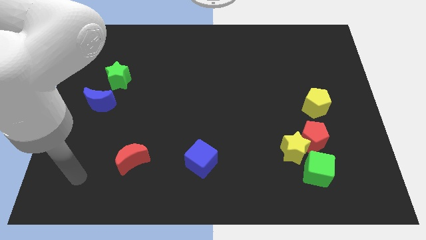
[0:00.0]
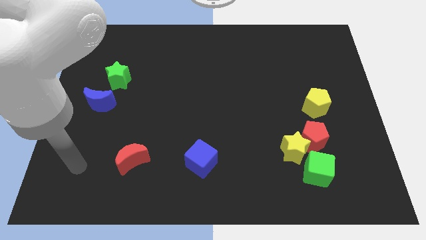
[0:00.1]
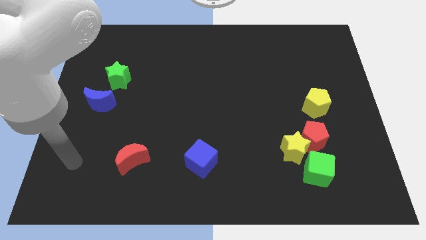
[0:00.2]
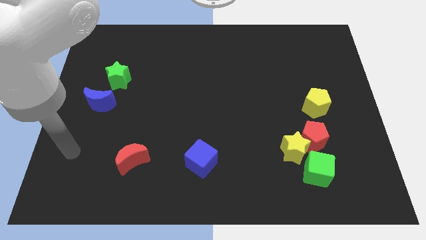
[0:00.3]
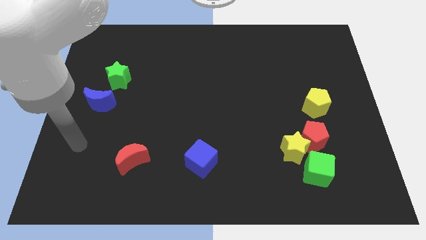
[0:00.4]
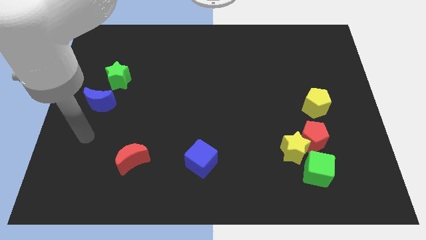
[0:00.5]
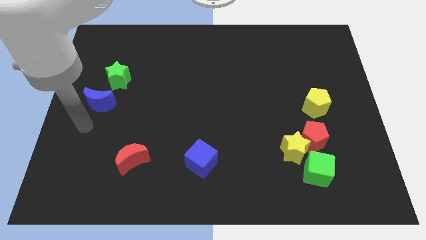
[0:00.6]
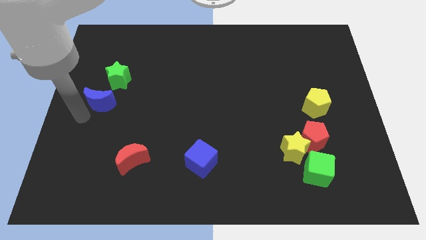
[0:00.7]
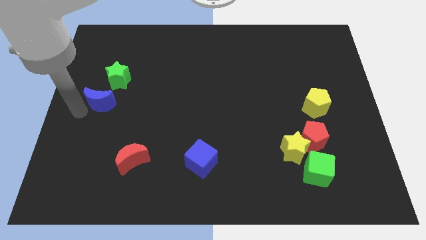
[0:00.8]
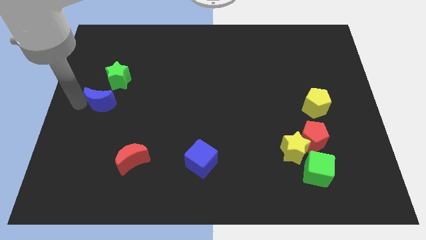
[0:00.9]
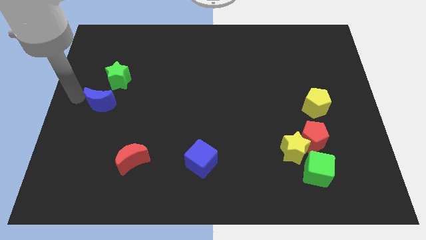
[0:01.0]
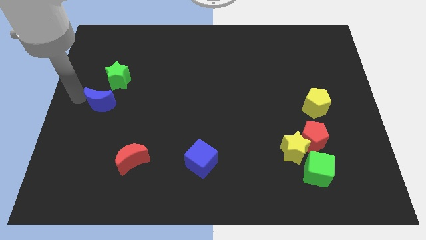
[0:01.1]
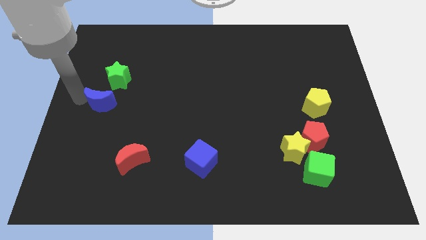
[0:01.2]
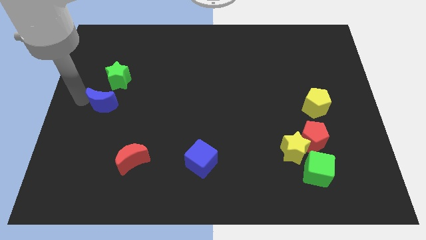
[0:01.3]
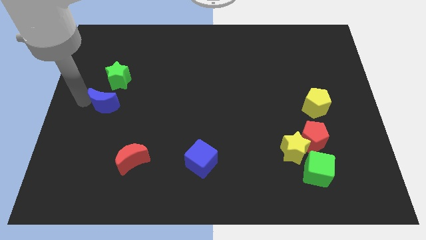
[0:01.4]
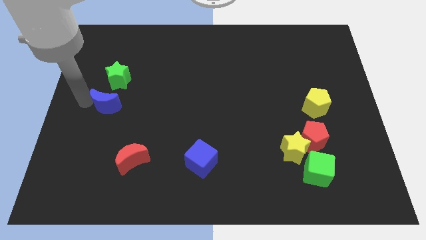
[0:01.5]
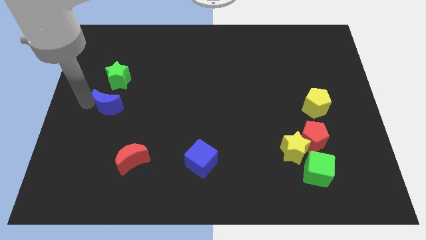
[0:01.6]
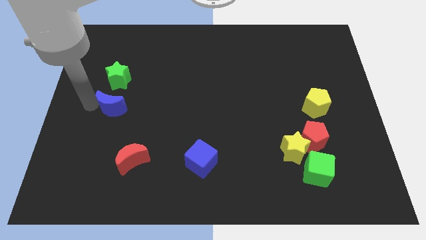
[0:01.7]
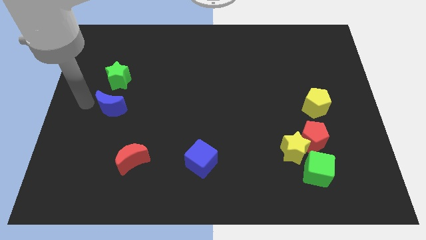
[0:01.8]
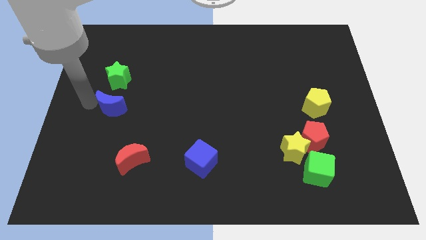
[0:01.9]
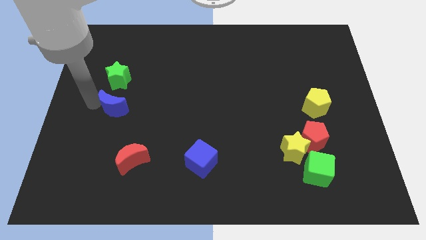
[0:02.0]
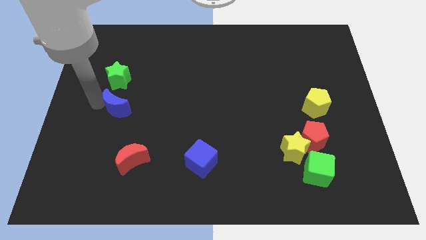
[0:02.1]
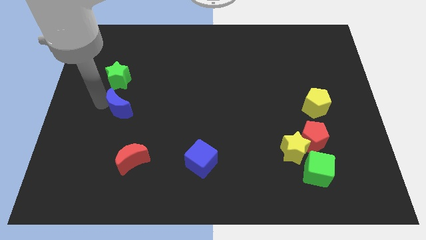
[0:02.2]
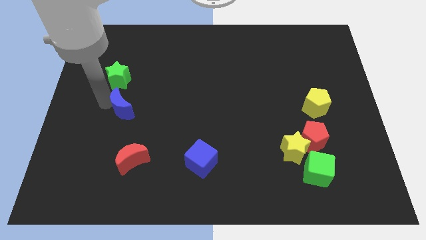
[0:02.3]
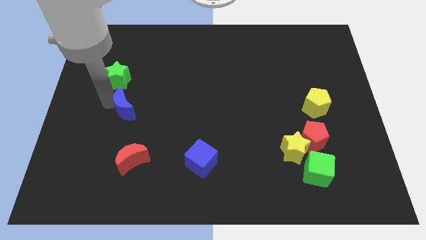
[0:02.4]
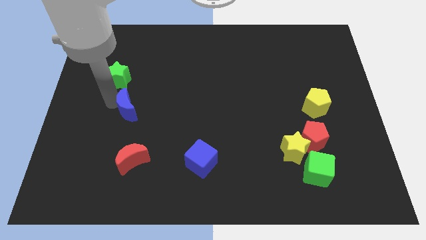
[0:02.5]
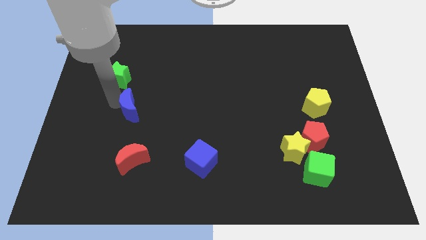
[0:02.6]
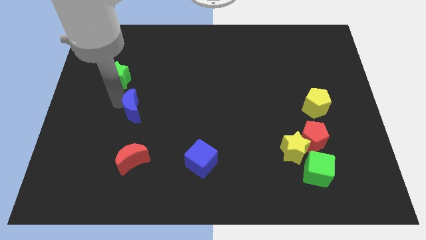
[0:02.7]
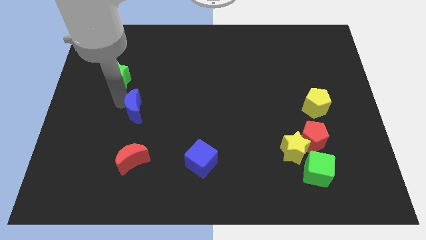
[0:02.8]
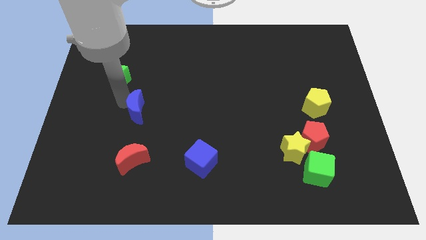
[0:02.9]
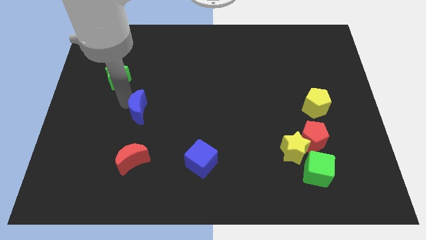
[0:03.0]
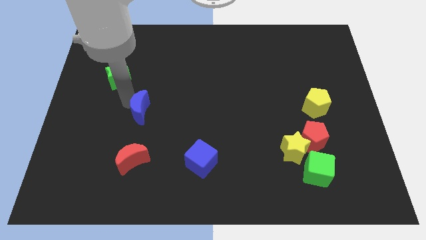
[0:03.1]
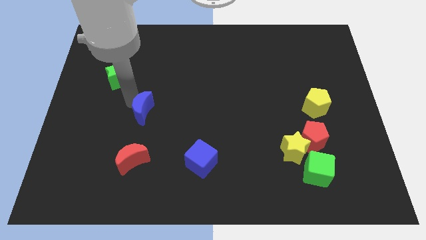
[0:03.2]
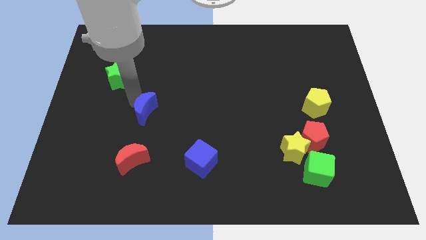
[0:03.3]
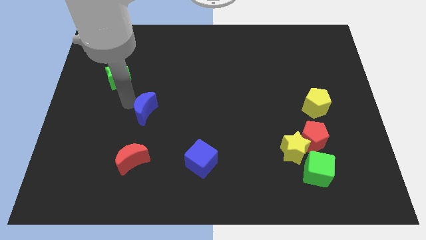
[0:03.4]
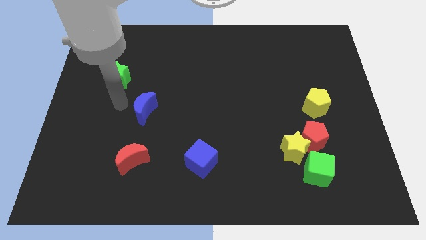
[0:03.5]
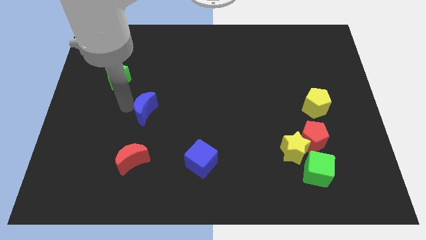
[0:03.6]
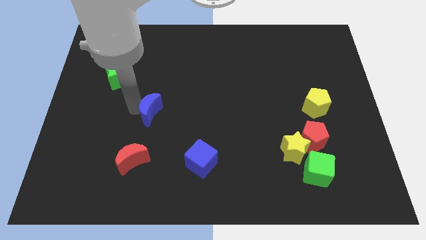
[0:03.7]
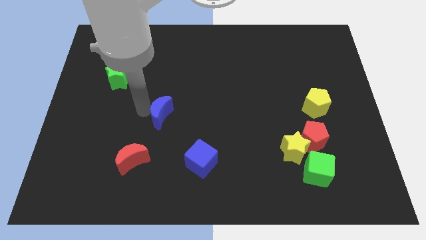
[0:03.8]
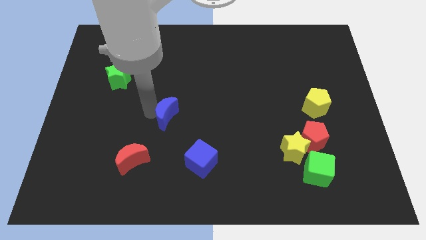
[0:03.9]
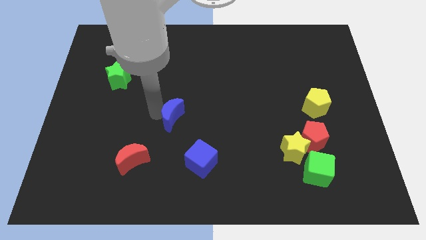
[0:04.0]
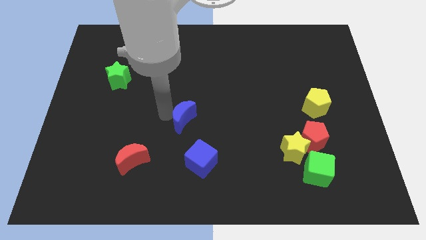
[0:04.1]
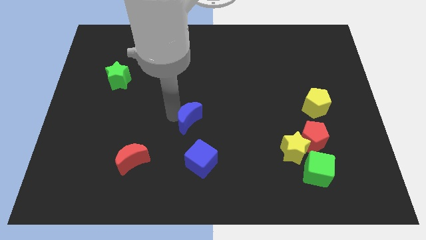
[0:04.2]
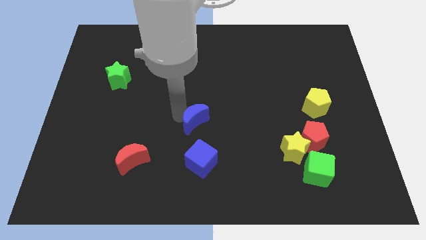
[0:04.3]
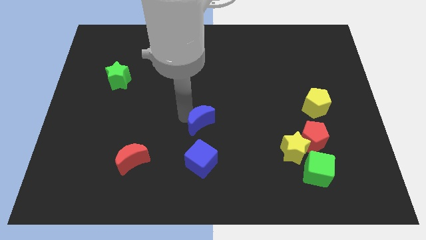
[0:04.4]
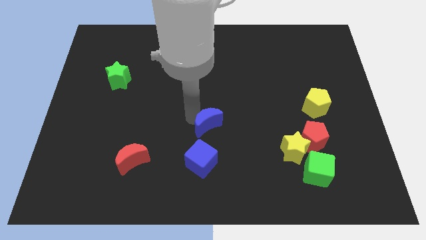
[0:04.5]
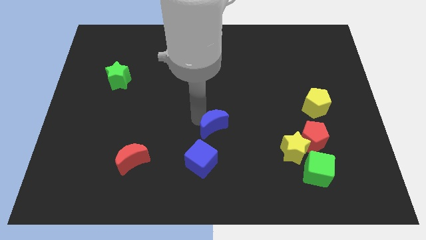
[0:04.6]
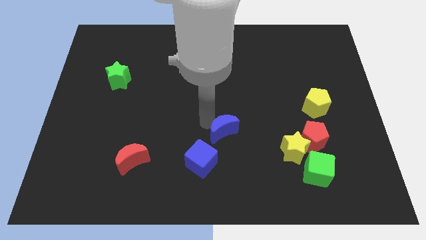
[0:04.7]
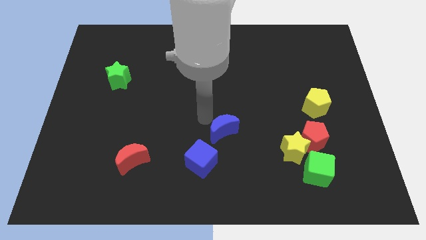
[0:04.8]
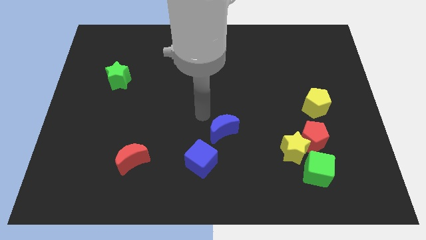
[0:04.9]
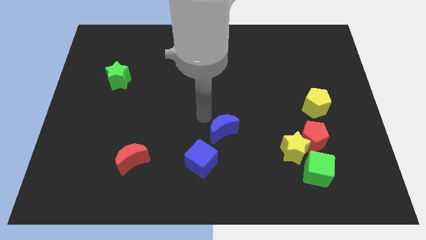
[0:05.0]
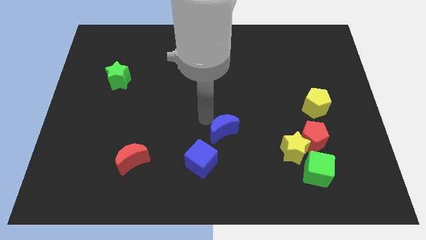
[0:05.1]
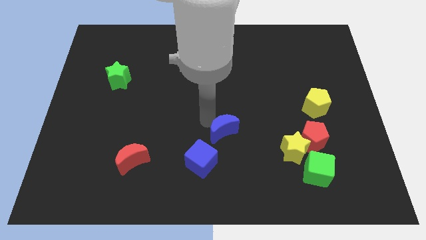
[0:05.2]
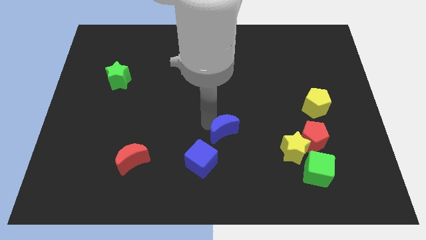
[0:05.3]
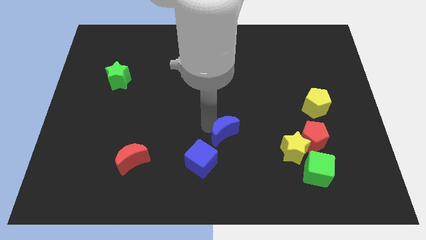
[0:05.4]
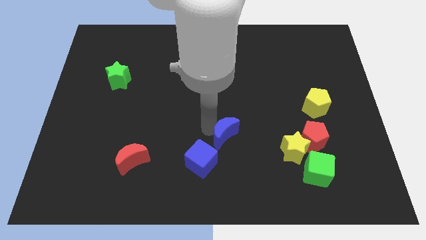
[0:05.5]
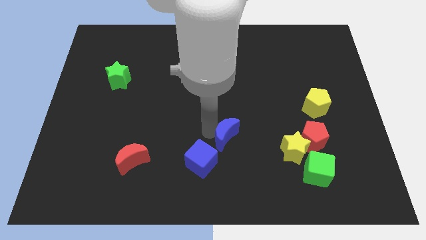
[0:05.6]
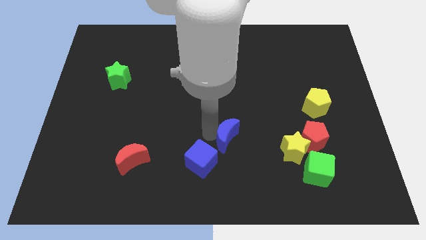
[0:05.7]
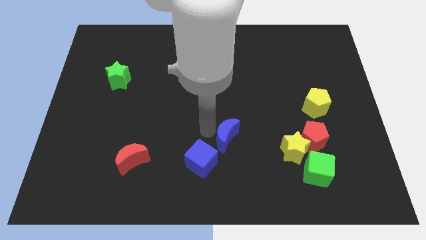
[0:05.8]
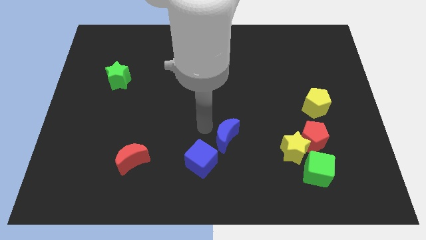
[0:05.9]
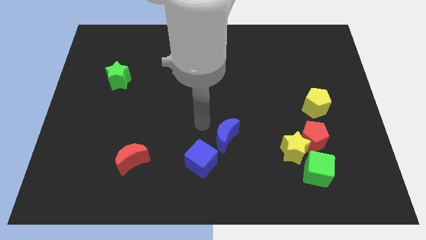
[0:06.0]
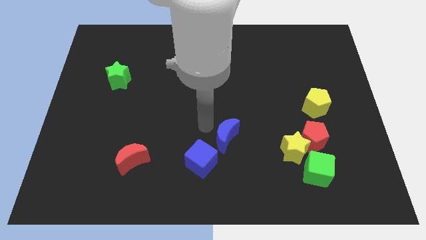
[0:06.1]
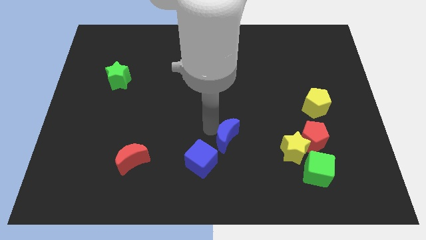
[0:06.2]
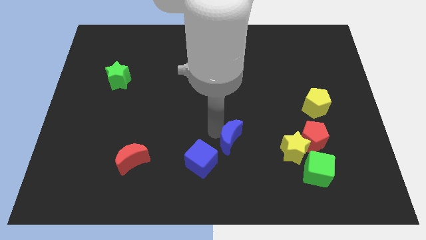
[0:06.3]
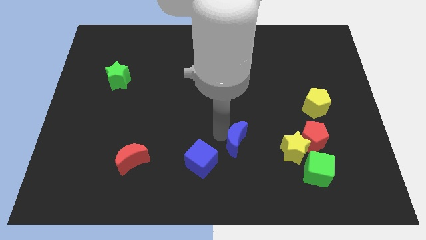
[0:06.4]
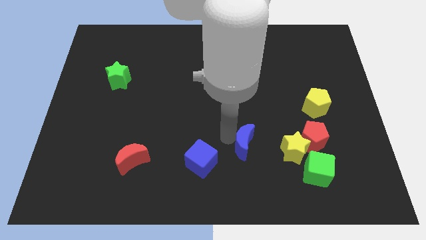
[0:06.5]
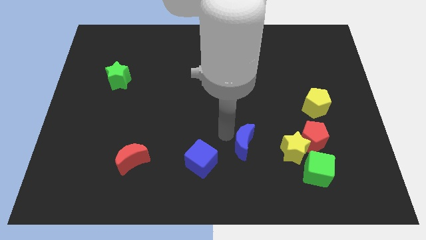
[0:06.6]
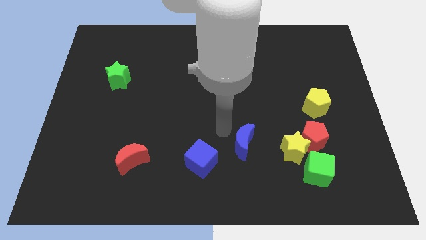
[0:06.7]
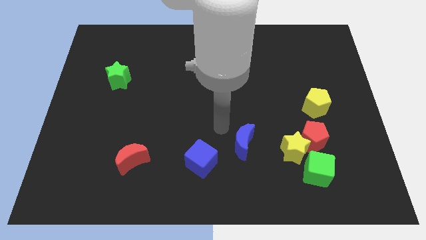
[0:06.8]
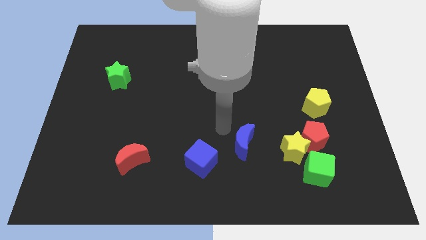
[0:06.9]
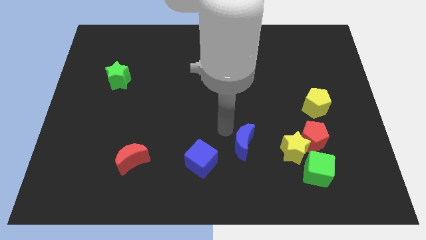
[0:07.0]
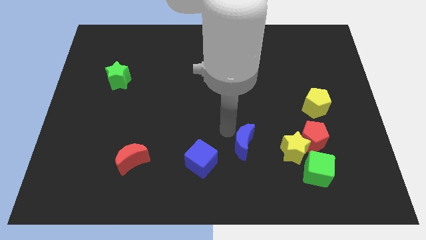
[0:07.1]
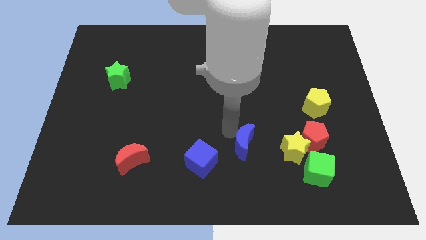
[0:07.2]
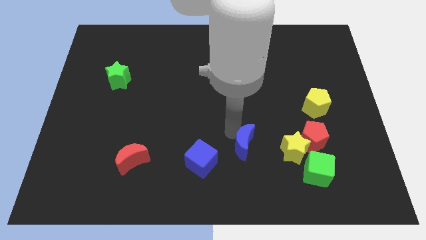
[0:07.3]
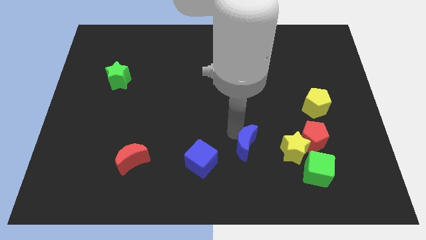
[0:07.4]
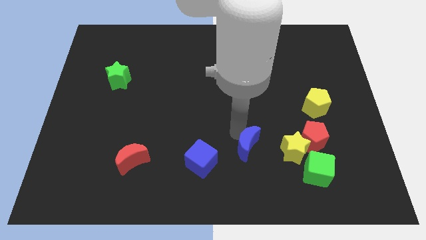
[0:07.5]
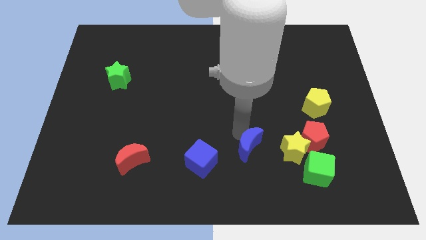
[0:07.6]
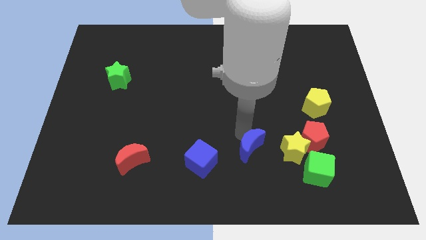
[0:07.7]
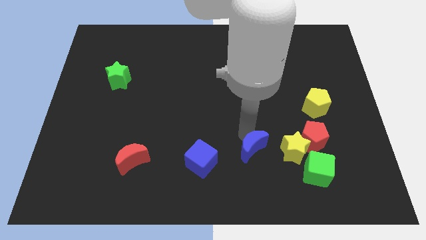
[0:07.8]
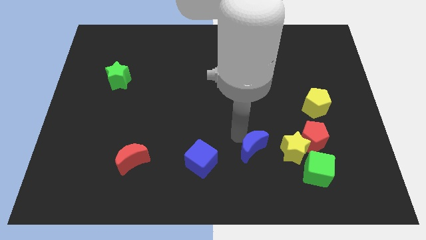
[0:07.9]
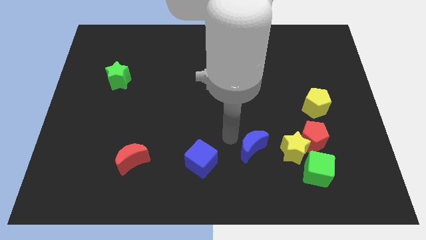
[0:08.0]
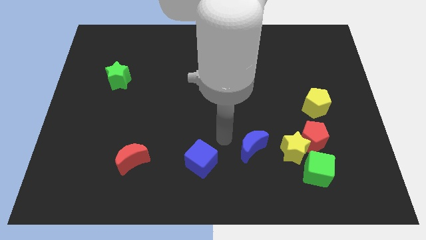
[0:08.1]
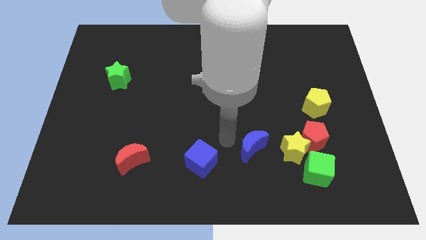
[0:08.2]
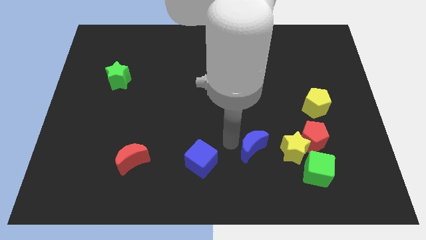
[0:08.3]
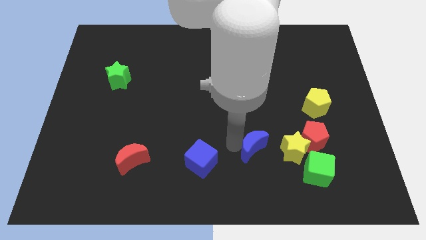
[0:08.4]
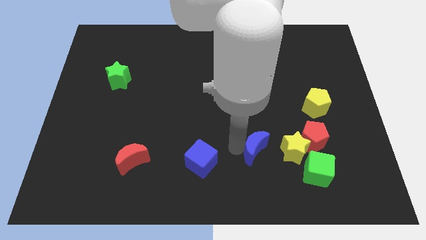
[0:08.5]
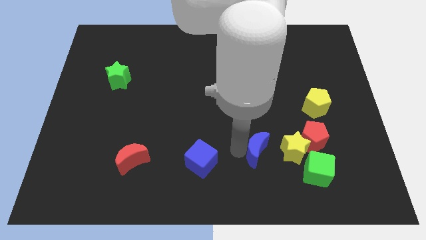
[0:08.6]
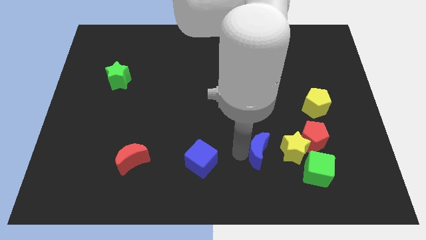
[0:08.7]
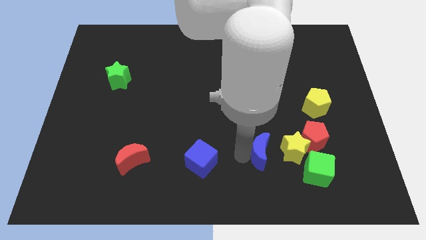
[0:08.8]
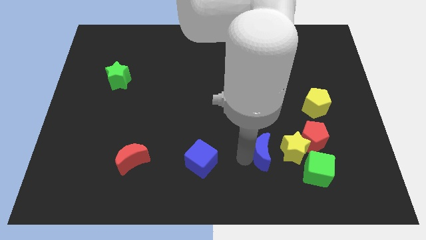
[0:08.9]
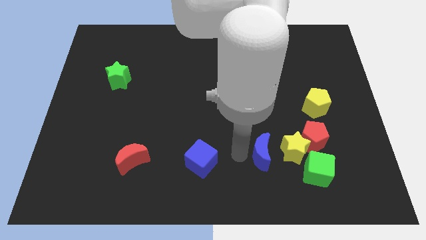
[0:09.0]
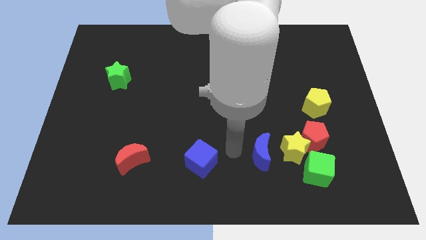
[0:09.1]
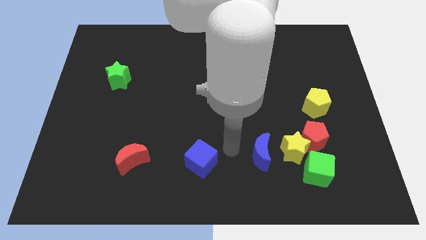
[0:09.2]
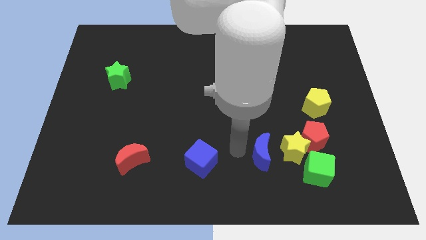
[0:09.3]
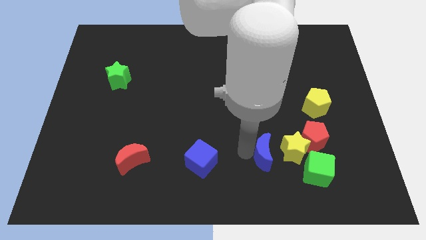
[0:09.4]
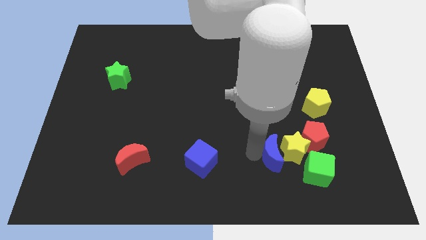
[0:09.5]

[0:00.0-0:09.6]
put the blue moon to the bottom left of the red pentagon
